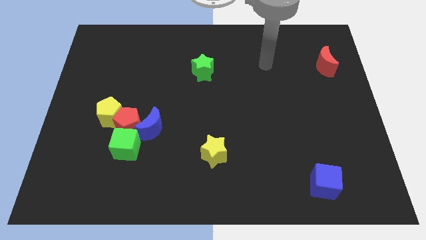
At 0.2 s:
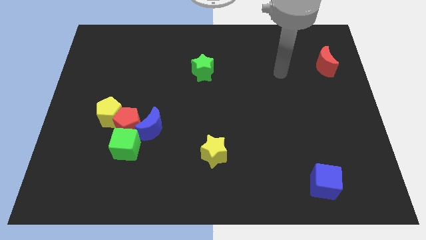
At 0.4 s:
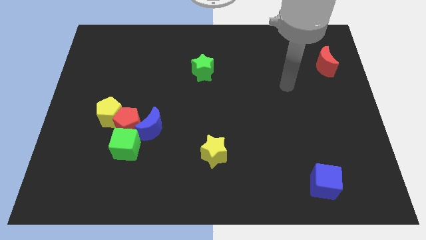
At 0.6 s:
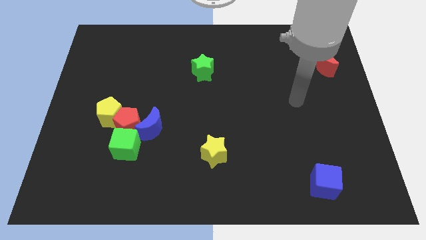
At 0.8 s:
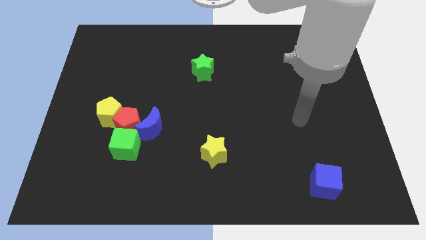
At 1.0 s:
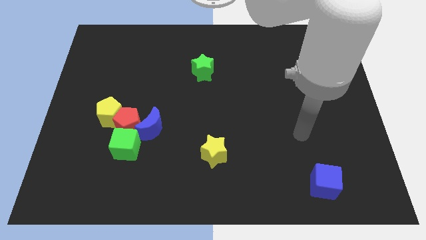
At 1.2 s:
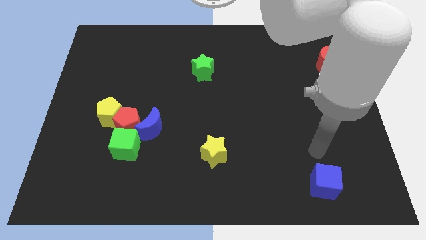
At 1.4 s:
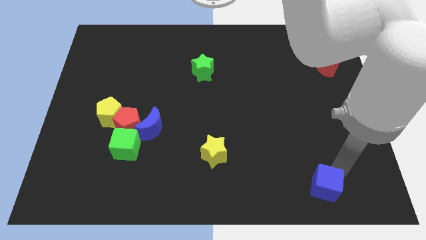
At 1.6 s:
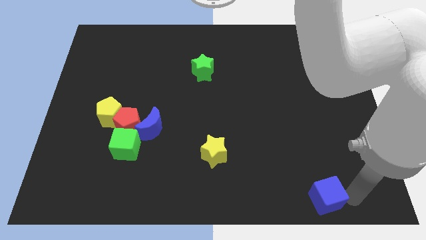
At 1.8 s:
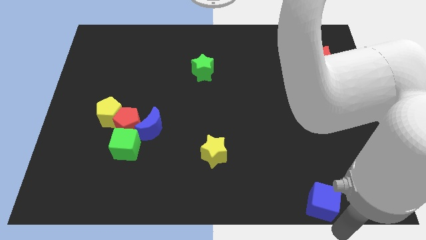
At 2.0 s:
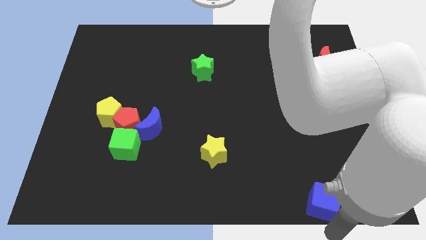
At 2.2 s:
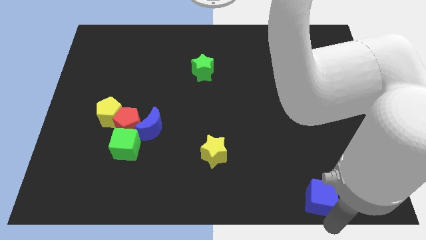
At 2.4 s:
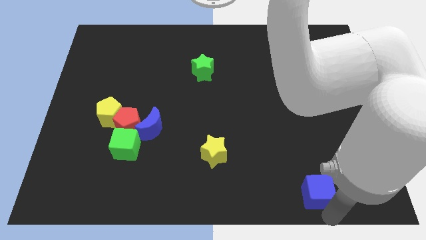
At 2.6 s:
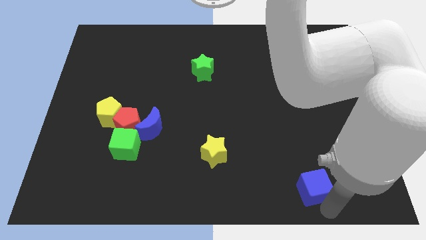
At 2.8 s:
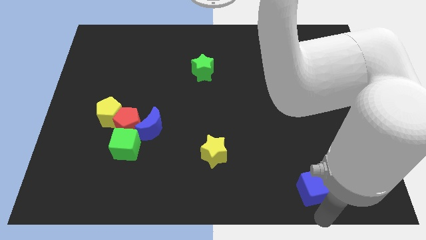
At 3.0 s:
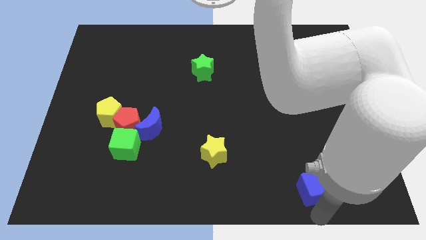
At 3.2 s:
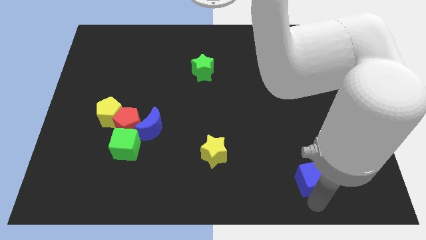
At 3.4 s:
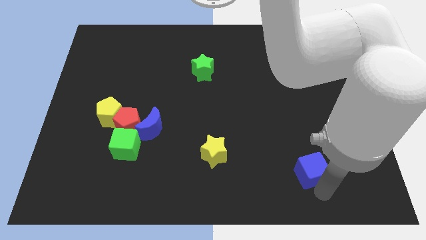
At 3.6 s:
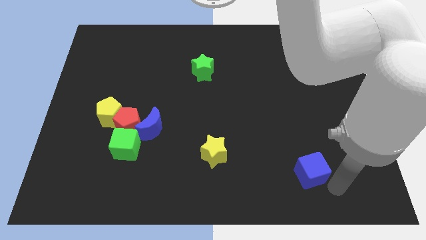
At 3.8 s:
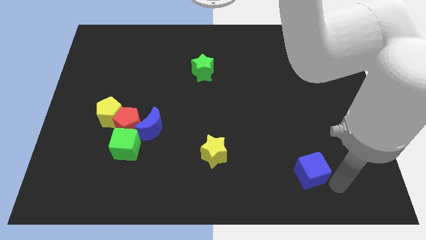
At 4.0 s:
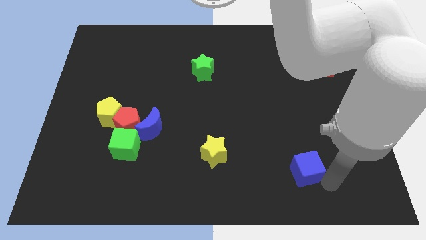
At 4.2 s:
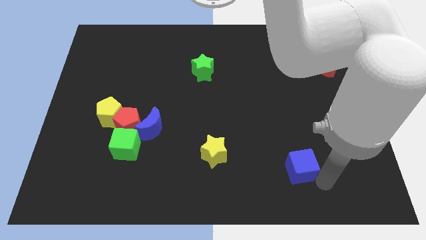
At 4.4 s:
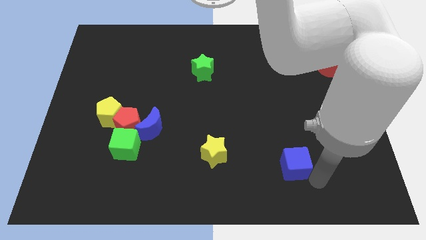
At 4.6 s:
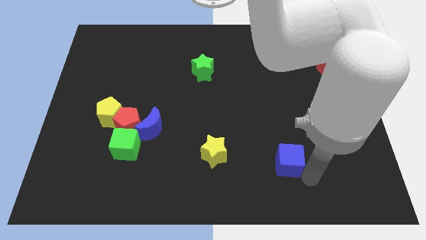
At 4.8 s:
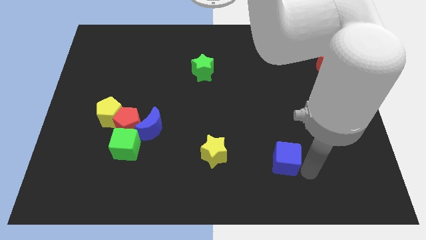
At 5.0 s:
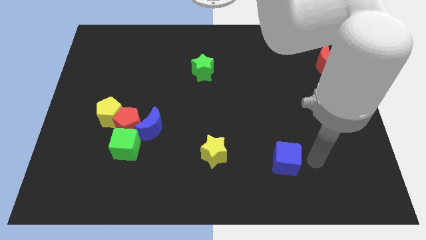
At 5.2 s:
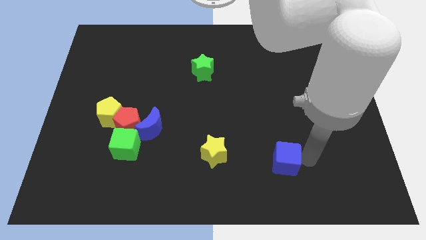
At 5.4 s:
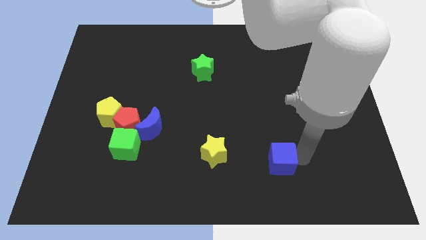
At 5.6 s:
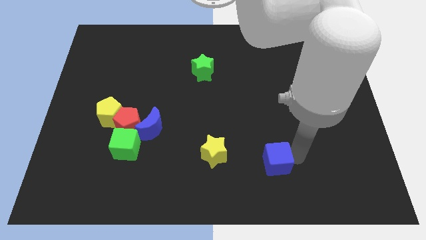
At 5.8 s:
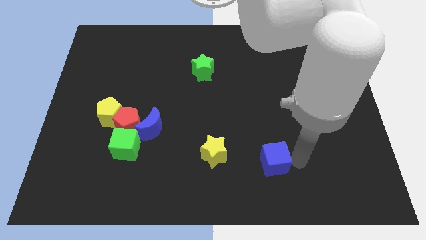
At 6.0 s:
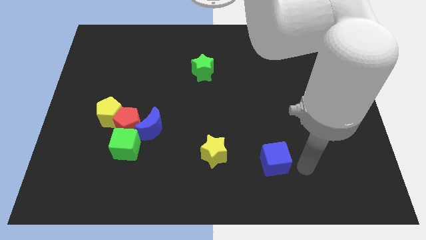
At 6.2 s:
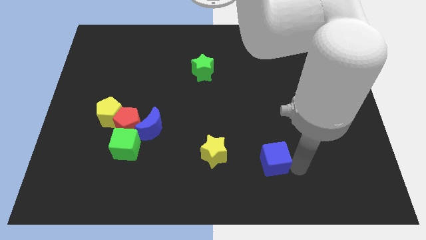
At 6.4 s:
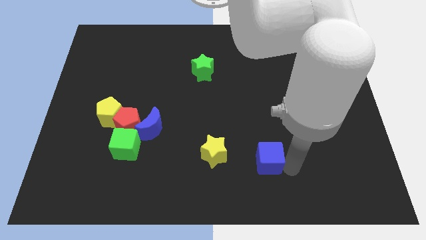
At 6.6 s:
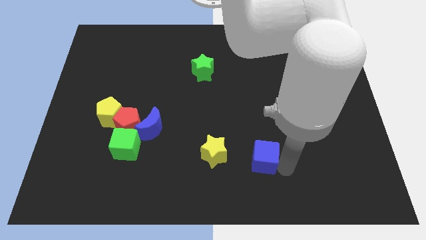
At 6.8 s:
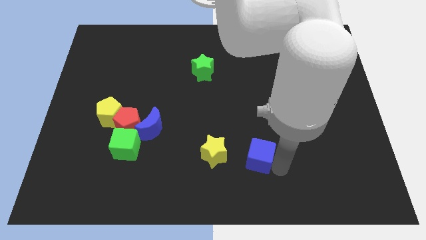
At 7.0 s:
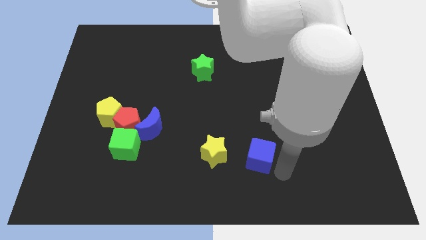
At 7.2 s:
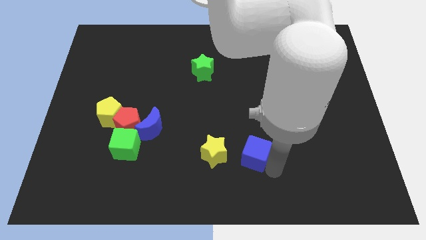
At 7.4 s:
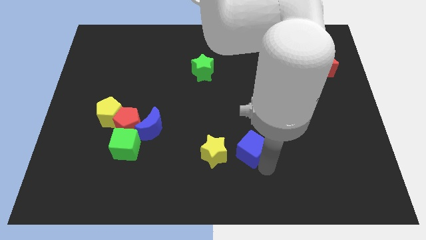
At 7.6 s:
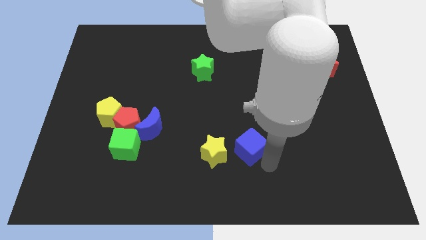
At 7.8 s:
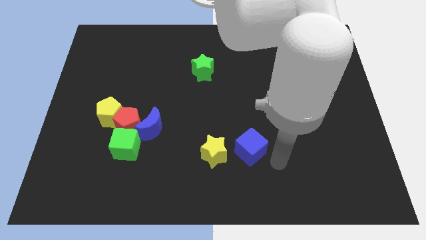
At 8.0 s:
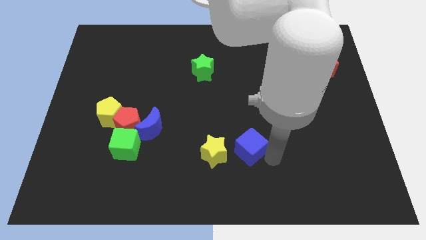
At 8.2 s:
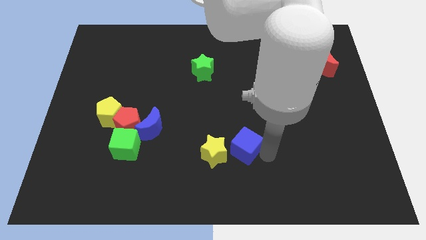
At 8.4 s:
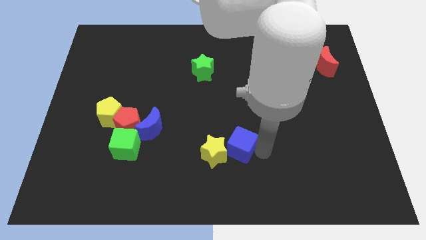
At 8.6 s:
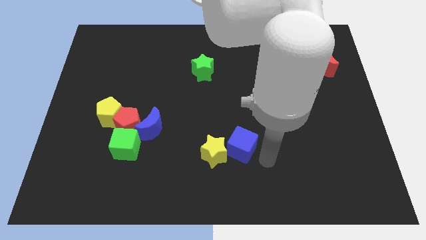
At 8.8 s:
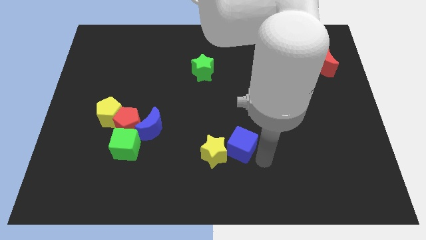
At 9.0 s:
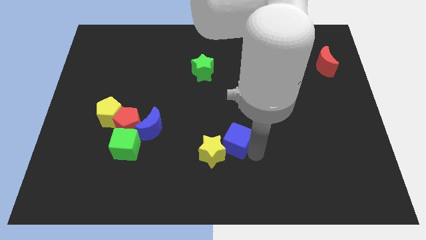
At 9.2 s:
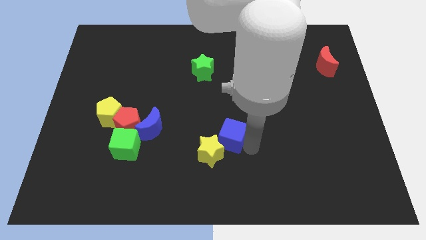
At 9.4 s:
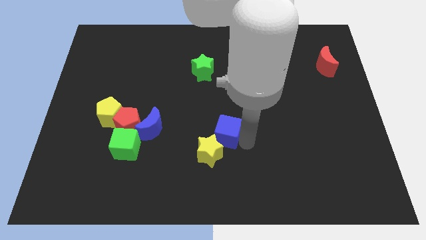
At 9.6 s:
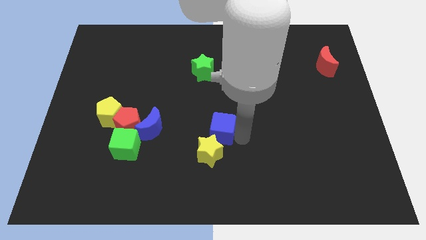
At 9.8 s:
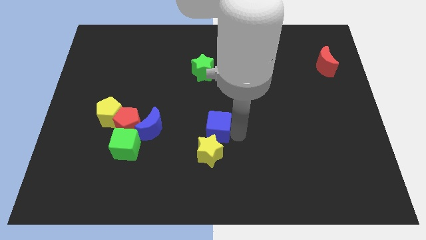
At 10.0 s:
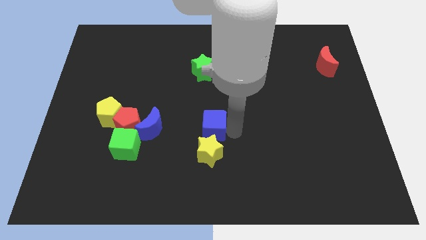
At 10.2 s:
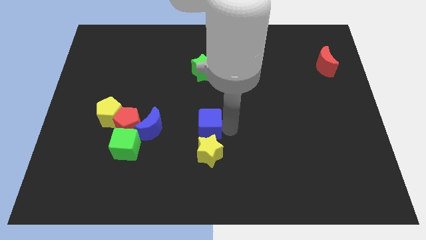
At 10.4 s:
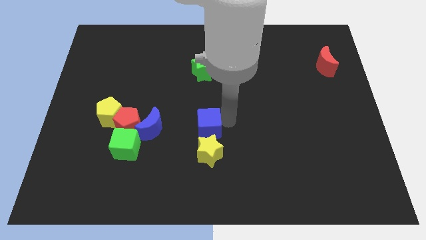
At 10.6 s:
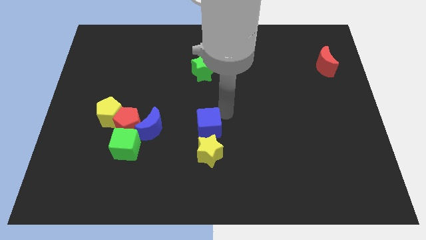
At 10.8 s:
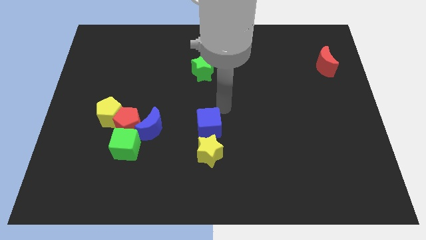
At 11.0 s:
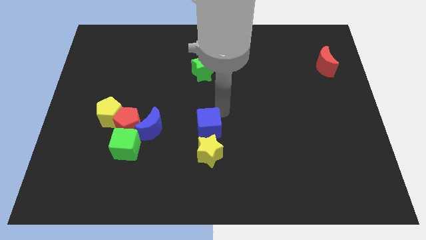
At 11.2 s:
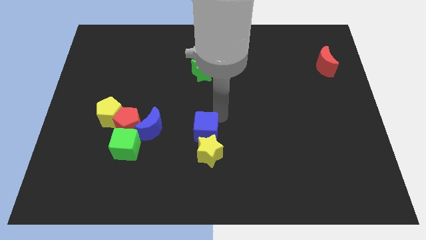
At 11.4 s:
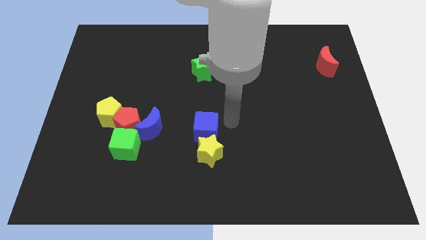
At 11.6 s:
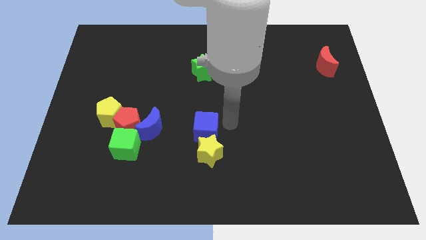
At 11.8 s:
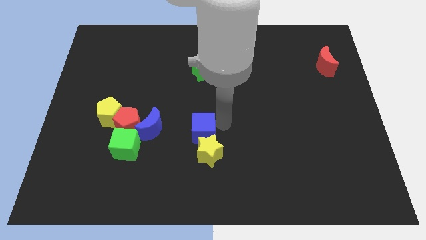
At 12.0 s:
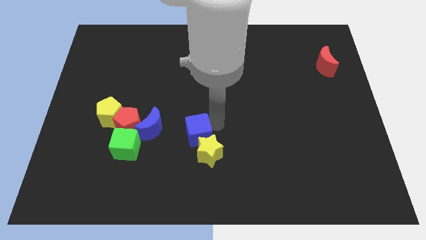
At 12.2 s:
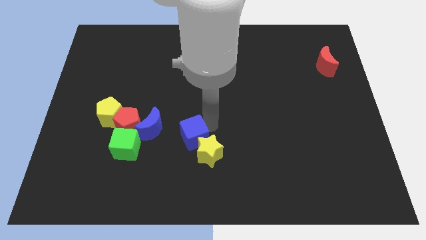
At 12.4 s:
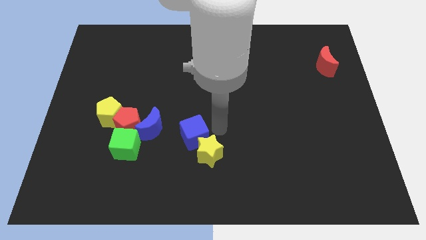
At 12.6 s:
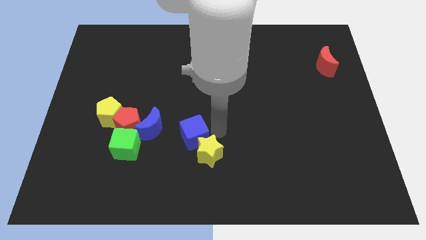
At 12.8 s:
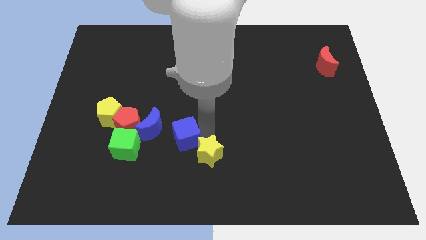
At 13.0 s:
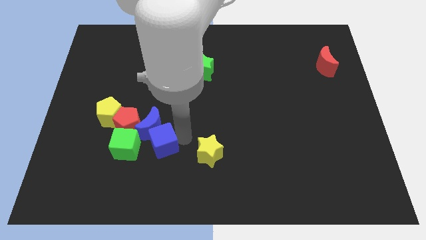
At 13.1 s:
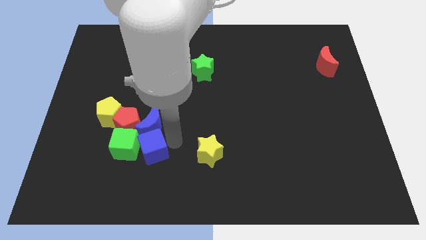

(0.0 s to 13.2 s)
move the blue cube towards the green cube

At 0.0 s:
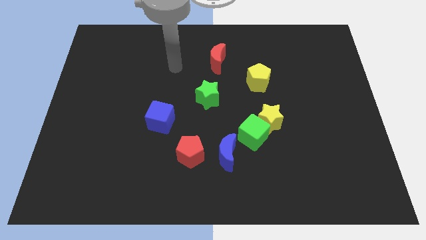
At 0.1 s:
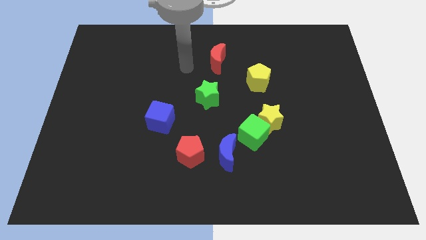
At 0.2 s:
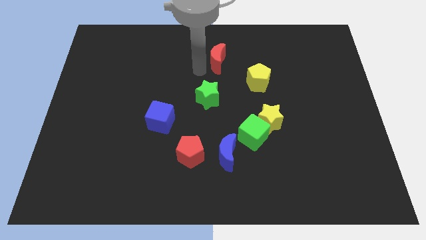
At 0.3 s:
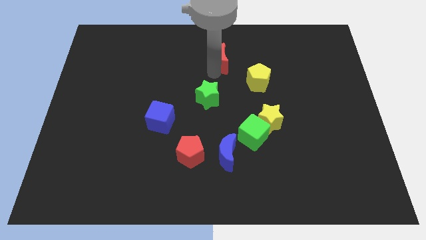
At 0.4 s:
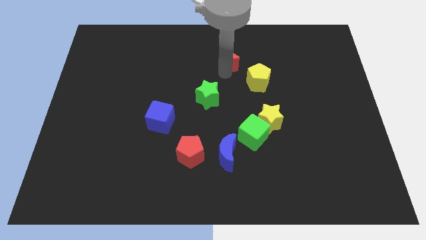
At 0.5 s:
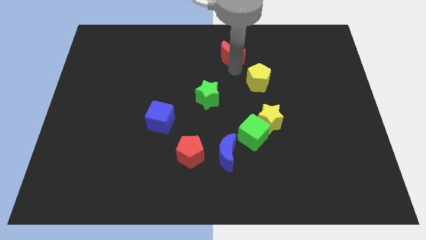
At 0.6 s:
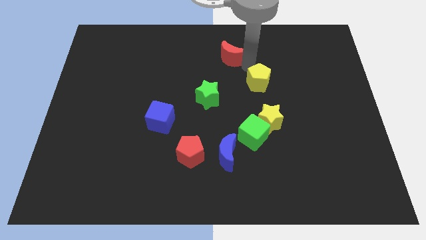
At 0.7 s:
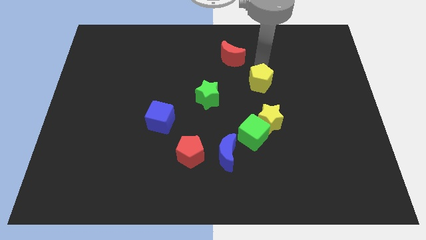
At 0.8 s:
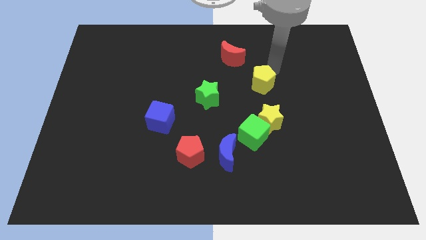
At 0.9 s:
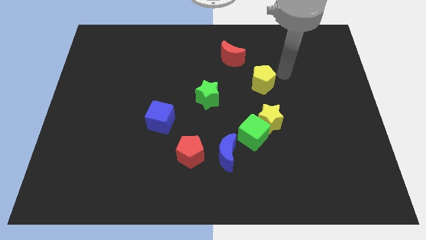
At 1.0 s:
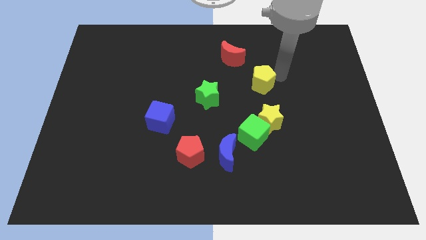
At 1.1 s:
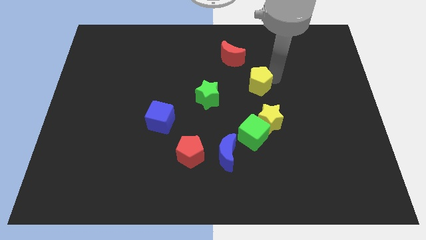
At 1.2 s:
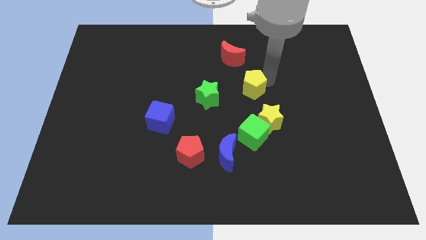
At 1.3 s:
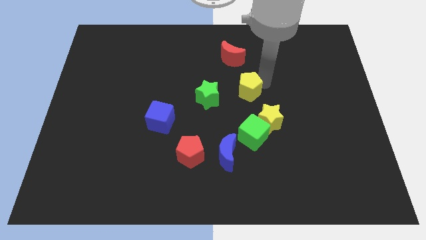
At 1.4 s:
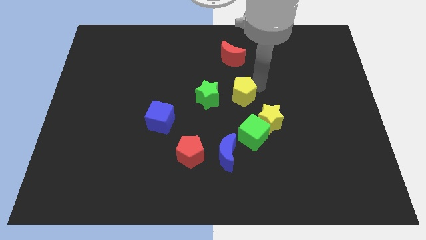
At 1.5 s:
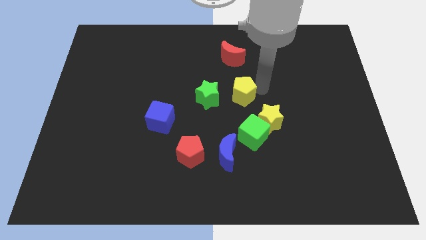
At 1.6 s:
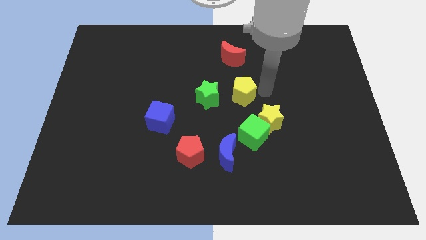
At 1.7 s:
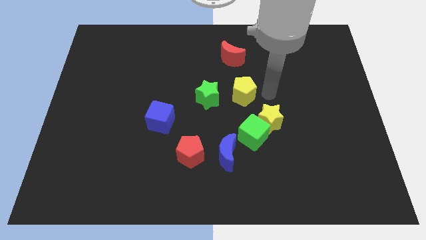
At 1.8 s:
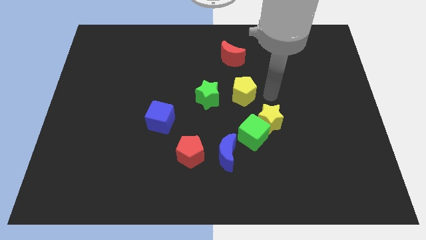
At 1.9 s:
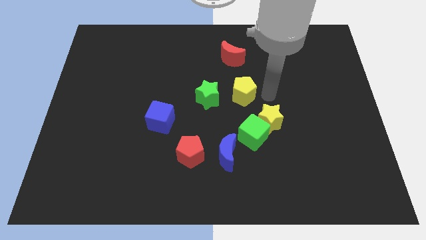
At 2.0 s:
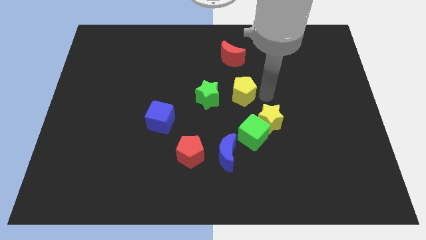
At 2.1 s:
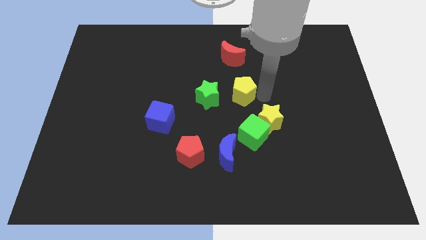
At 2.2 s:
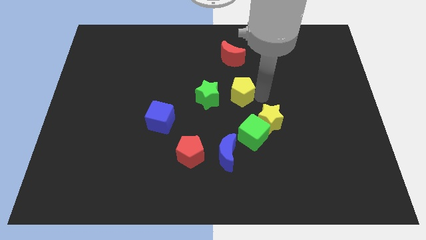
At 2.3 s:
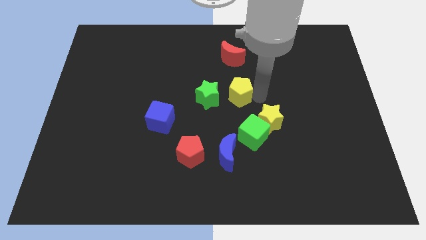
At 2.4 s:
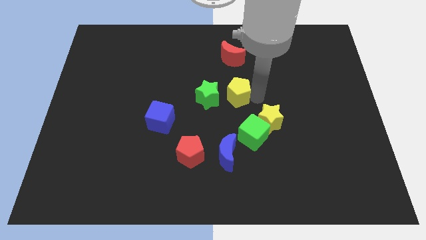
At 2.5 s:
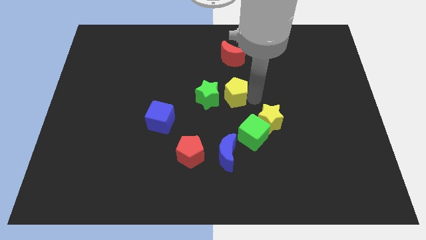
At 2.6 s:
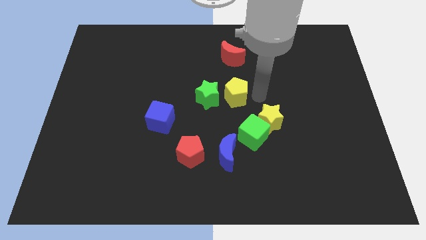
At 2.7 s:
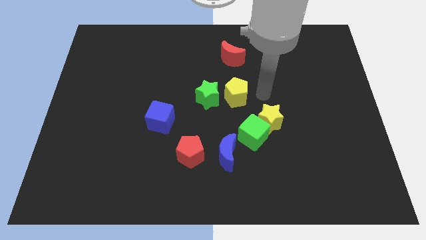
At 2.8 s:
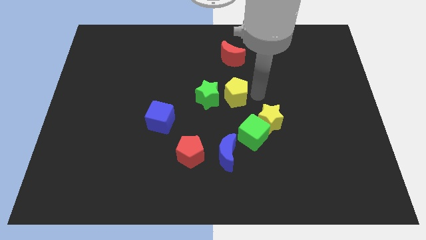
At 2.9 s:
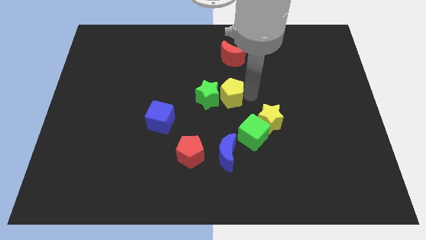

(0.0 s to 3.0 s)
move the yellow pentagon towards the green star
